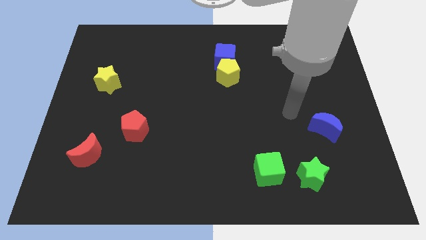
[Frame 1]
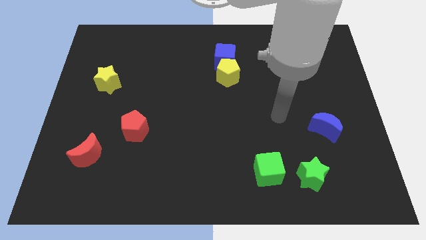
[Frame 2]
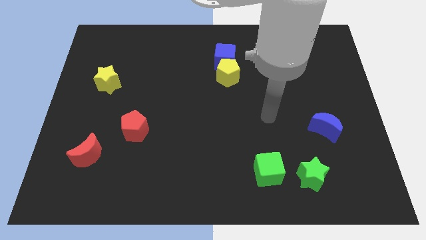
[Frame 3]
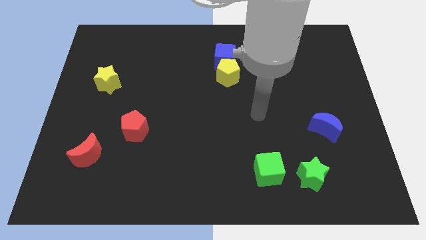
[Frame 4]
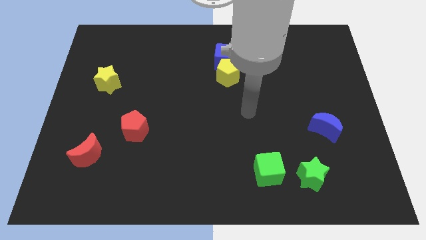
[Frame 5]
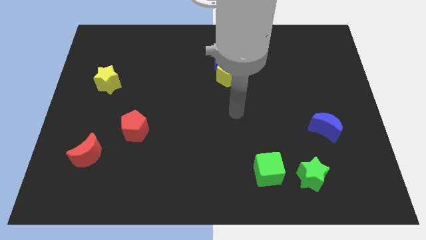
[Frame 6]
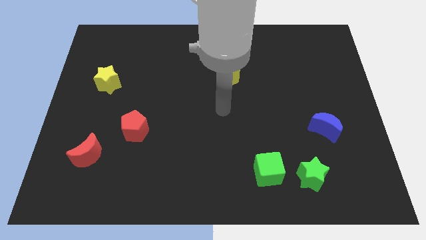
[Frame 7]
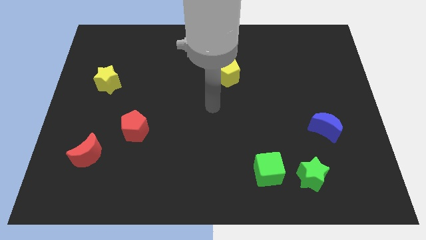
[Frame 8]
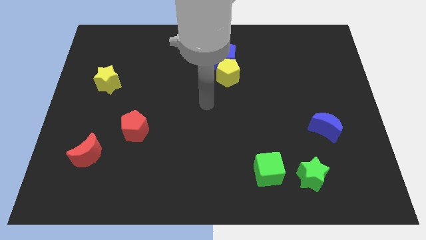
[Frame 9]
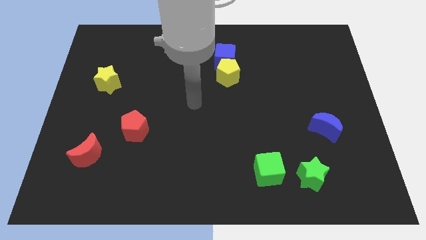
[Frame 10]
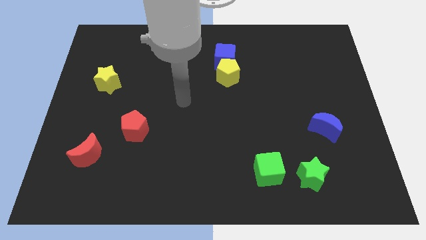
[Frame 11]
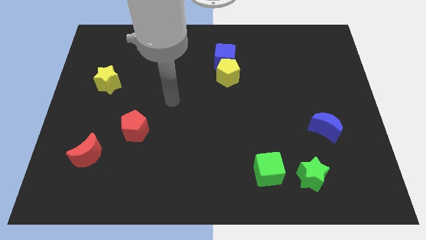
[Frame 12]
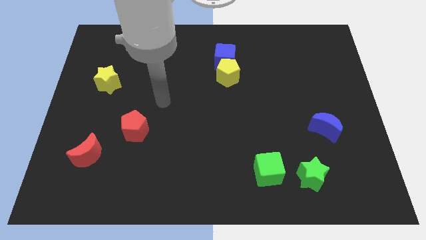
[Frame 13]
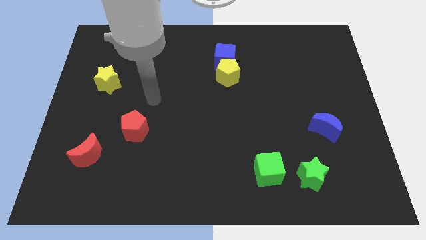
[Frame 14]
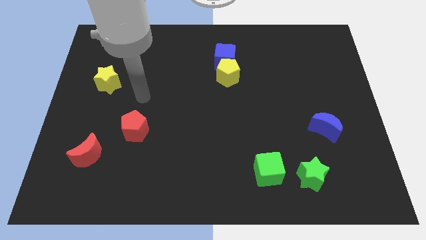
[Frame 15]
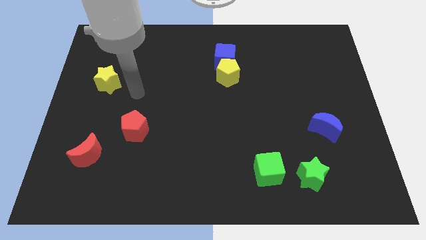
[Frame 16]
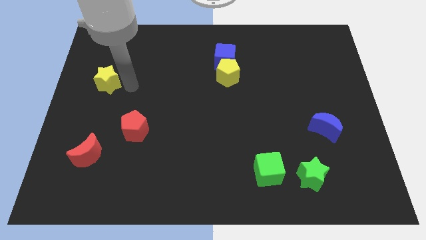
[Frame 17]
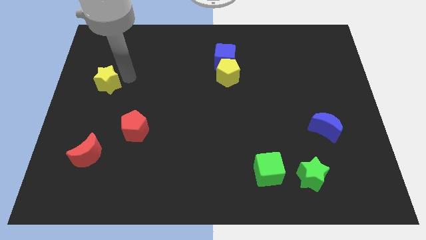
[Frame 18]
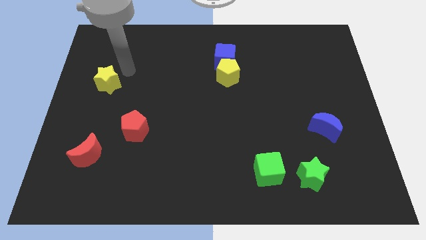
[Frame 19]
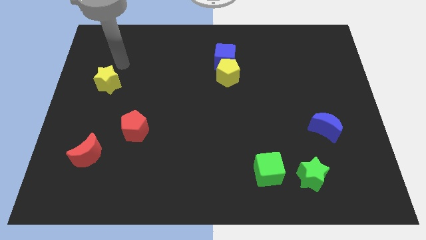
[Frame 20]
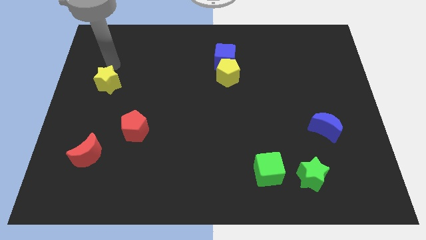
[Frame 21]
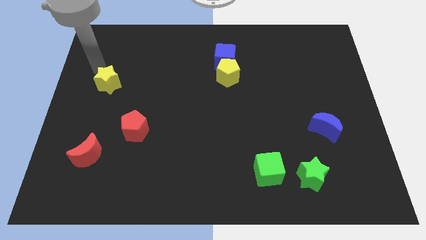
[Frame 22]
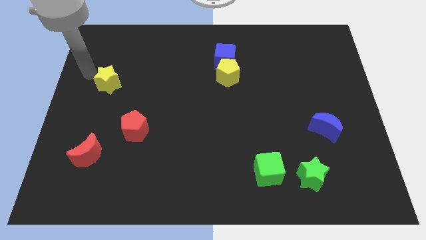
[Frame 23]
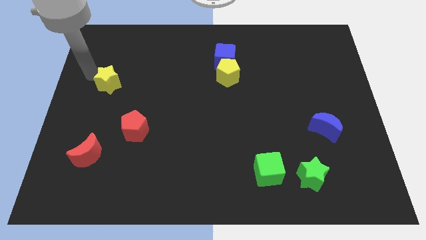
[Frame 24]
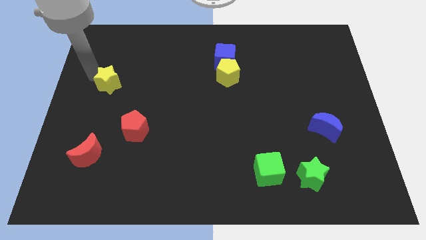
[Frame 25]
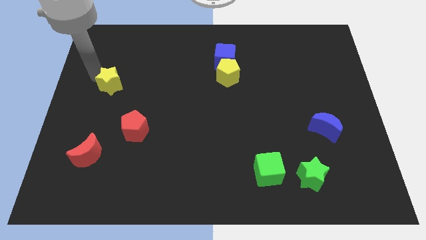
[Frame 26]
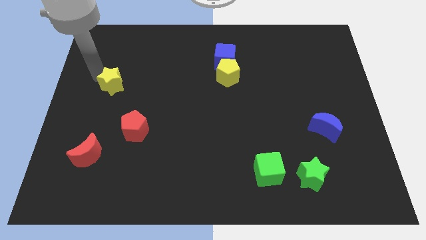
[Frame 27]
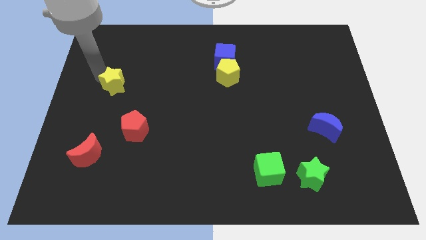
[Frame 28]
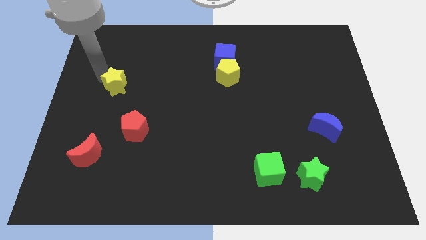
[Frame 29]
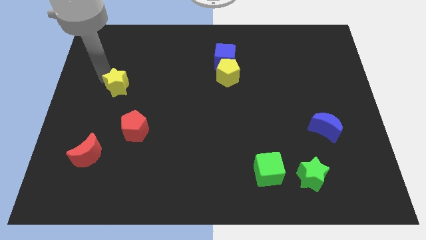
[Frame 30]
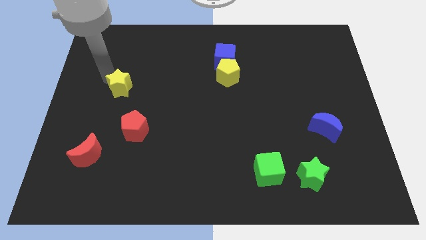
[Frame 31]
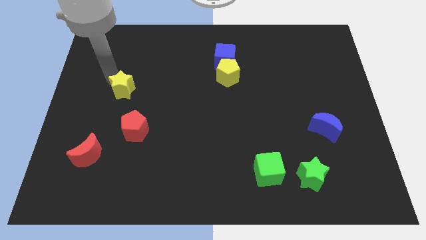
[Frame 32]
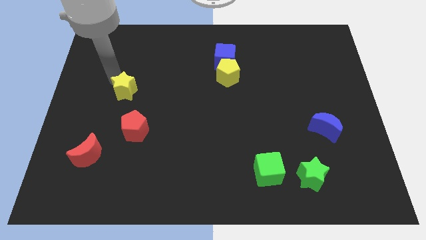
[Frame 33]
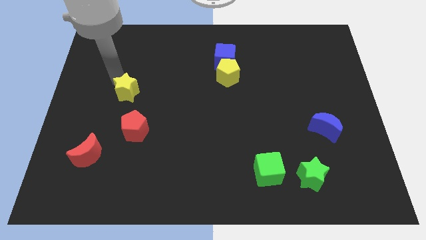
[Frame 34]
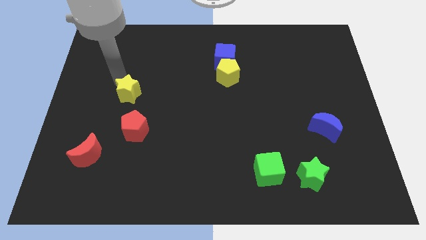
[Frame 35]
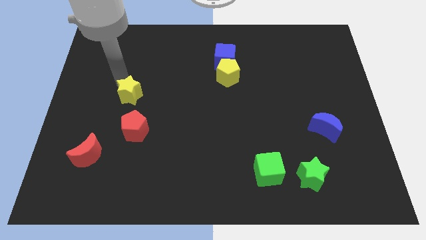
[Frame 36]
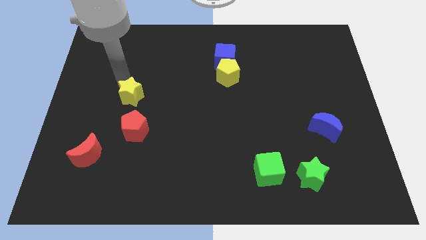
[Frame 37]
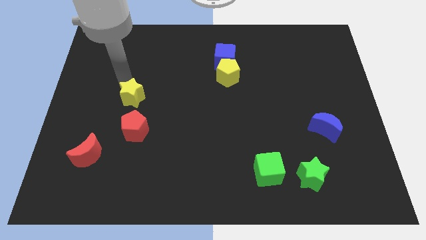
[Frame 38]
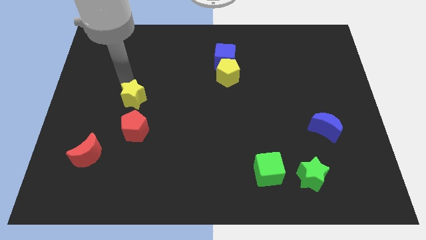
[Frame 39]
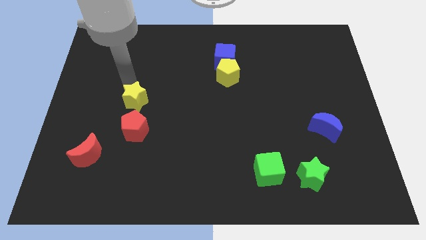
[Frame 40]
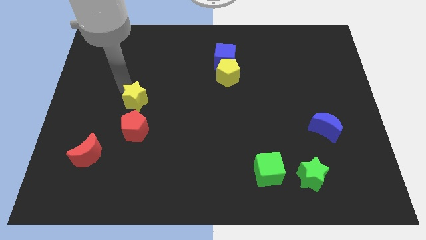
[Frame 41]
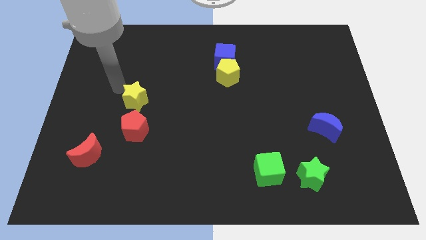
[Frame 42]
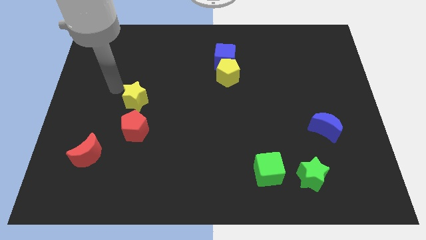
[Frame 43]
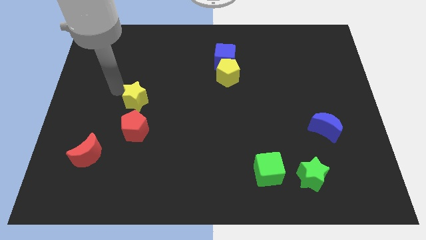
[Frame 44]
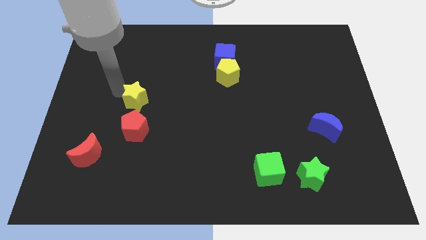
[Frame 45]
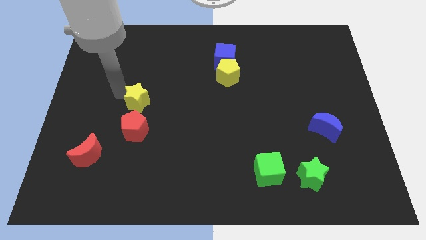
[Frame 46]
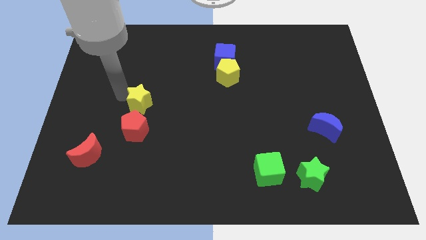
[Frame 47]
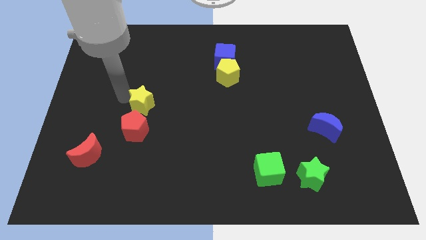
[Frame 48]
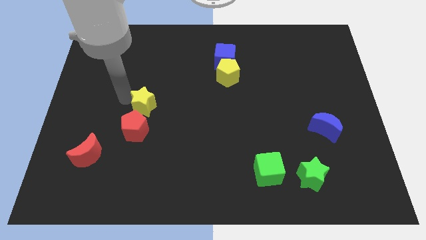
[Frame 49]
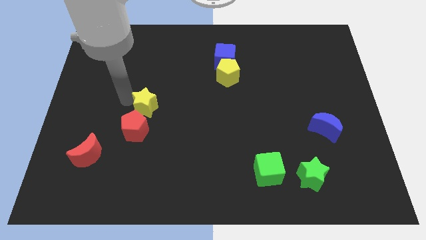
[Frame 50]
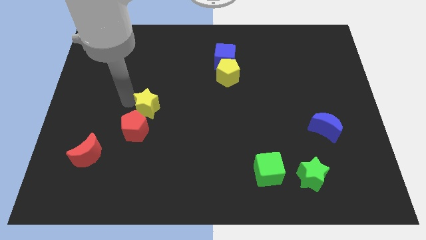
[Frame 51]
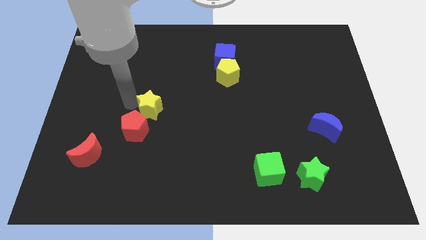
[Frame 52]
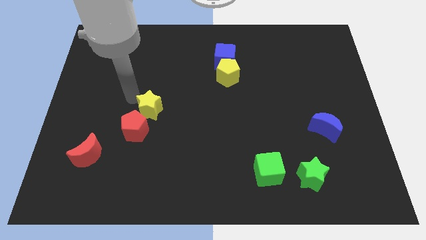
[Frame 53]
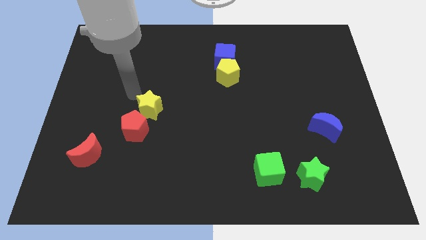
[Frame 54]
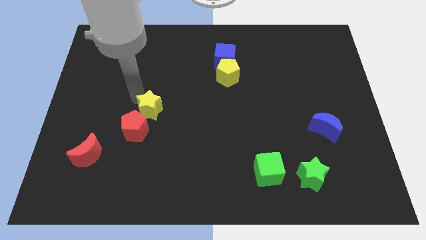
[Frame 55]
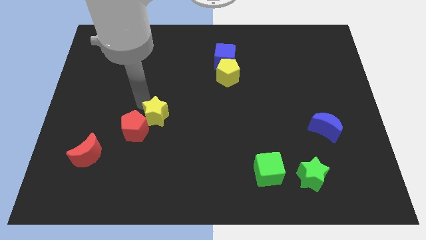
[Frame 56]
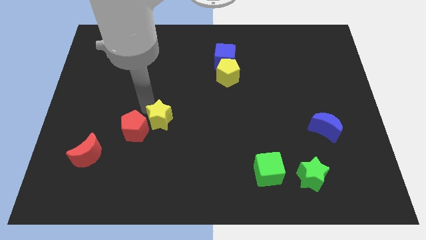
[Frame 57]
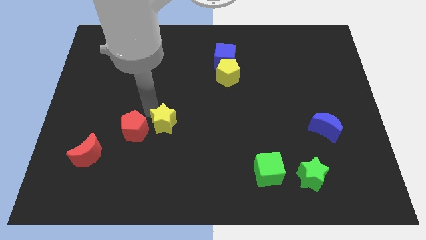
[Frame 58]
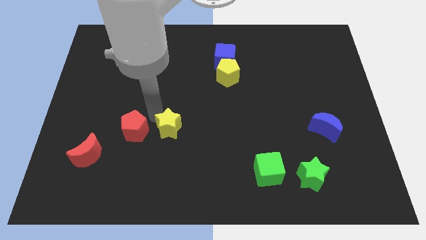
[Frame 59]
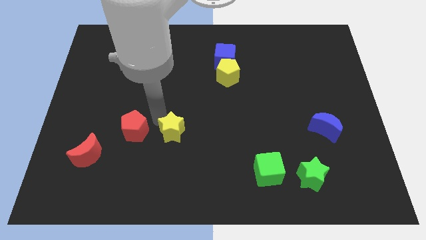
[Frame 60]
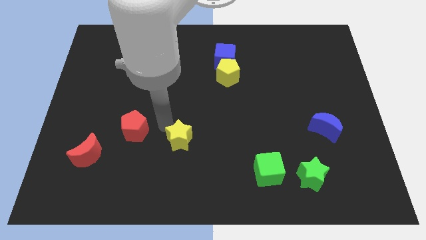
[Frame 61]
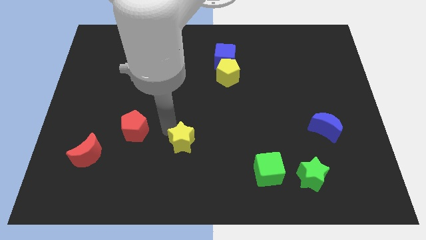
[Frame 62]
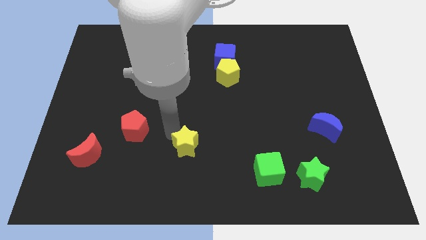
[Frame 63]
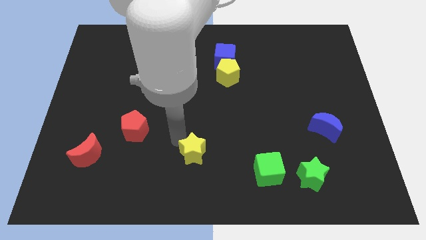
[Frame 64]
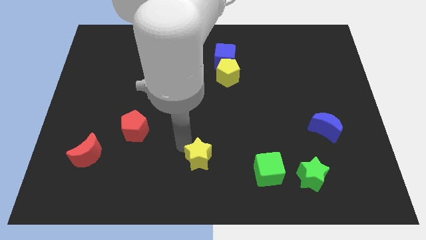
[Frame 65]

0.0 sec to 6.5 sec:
slide the yellow star left of the green cube

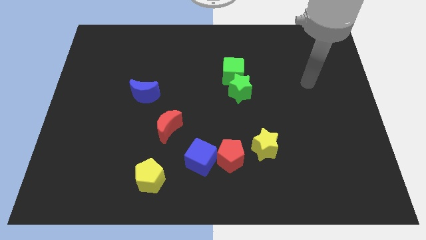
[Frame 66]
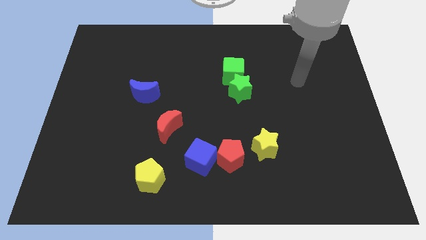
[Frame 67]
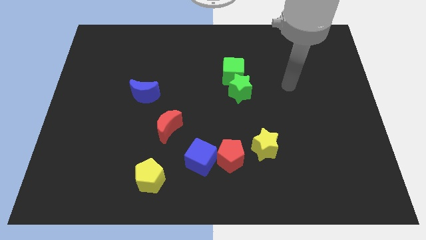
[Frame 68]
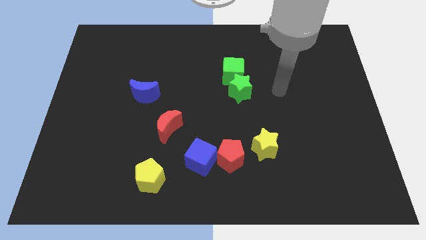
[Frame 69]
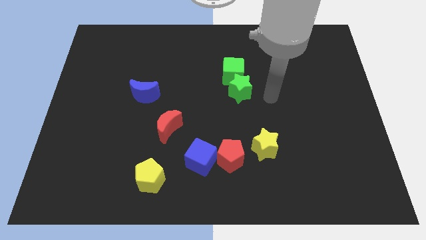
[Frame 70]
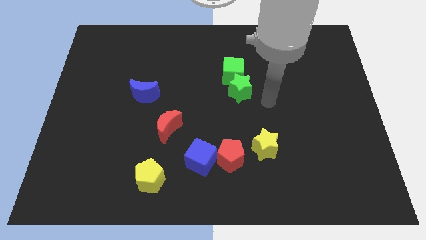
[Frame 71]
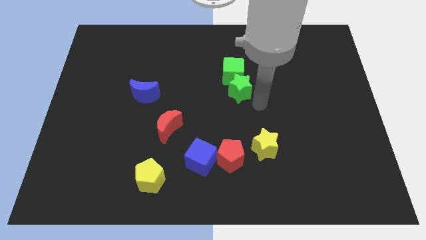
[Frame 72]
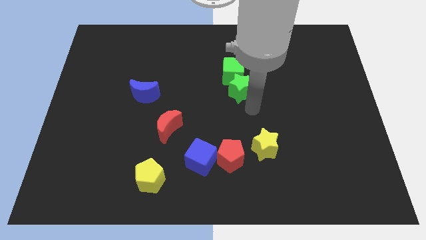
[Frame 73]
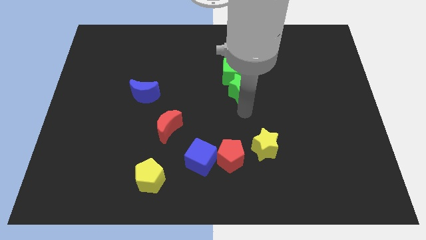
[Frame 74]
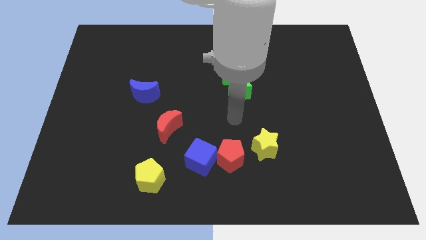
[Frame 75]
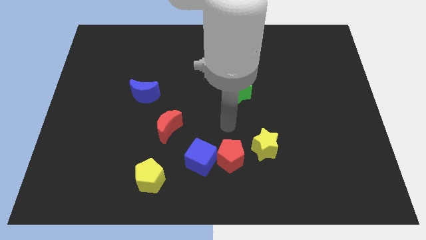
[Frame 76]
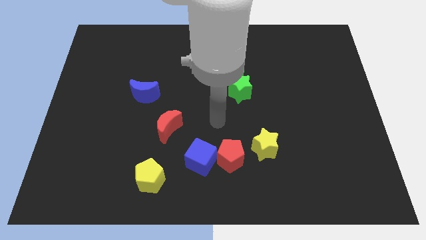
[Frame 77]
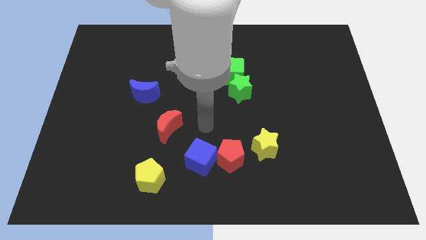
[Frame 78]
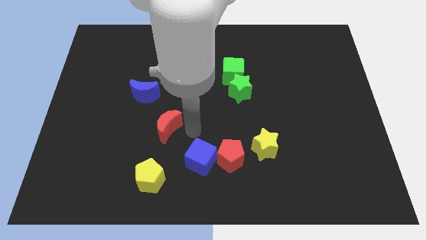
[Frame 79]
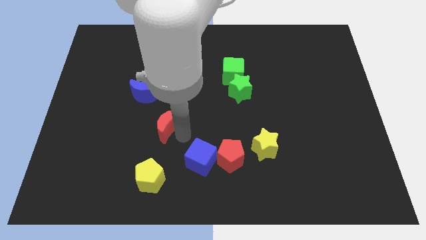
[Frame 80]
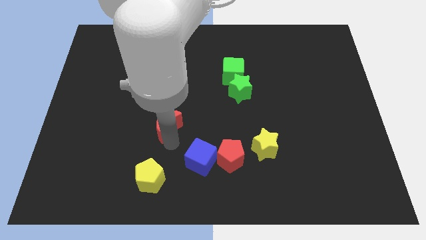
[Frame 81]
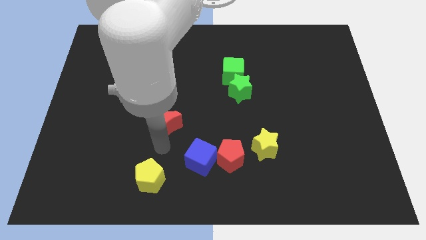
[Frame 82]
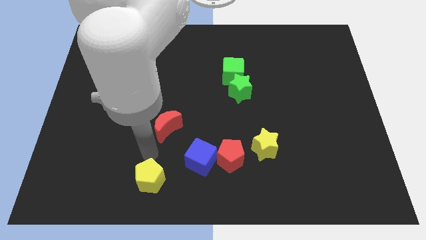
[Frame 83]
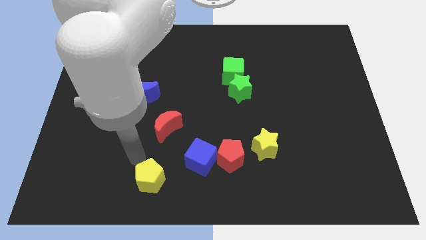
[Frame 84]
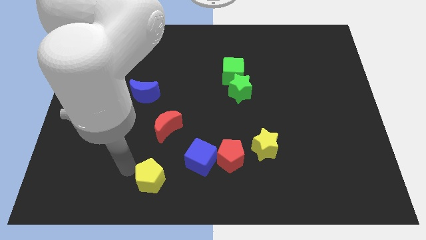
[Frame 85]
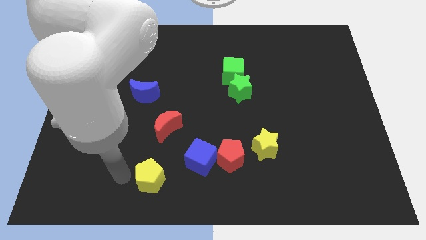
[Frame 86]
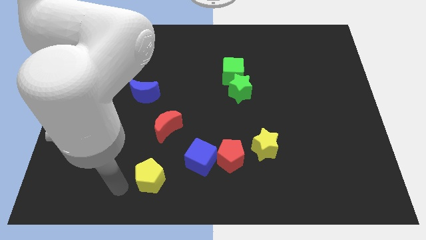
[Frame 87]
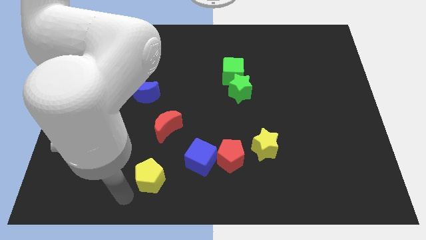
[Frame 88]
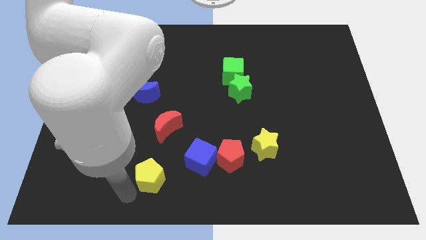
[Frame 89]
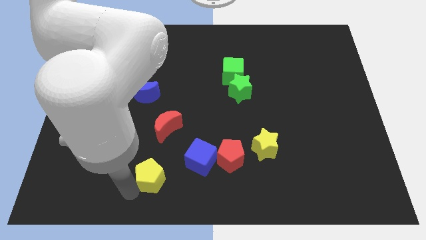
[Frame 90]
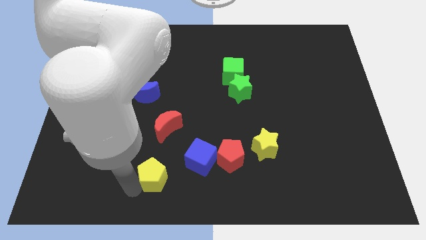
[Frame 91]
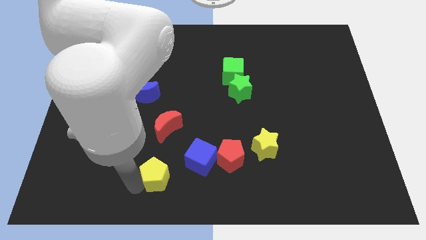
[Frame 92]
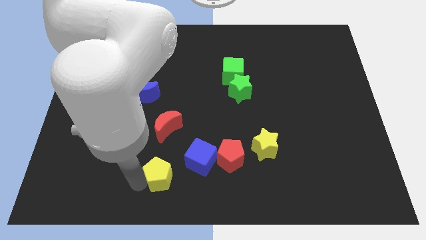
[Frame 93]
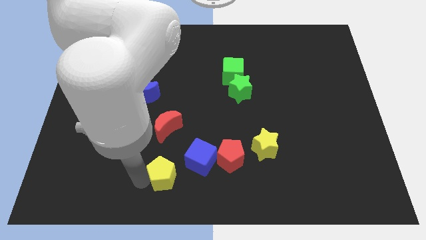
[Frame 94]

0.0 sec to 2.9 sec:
slide the yellow pentagon to the left of the red pentagon
